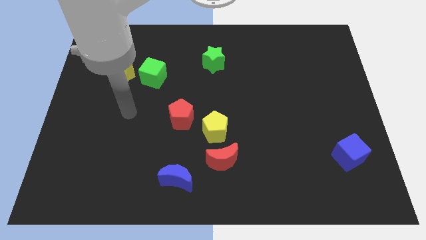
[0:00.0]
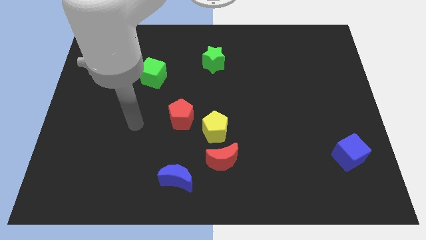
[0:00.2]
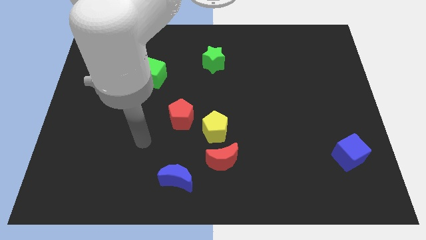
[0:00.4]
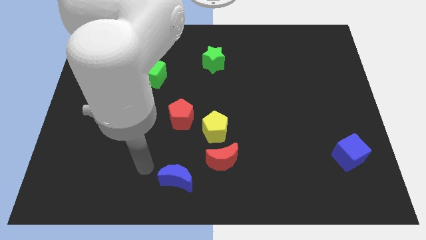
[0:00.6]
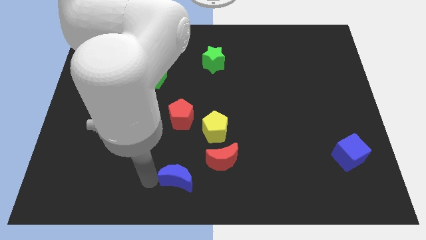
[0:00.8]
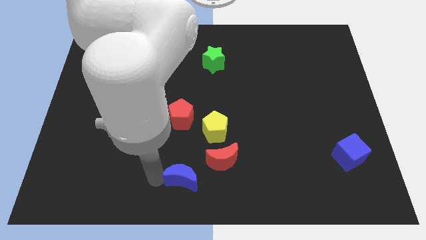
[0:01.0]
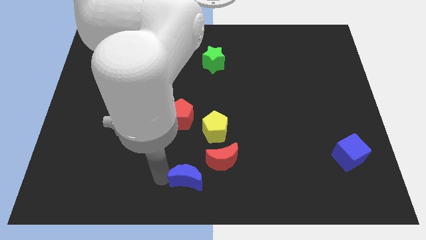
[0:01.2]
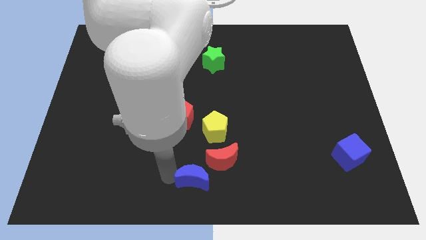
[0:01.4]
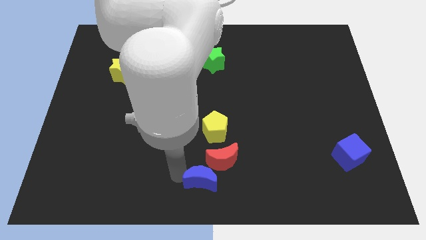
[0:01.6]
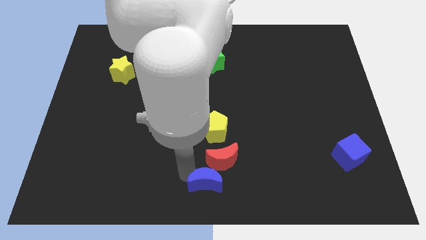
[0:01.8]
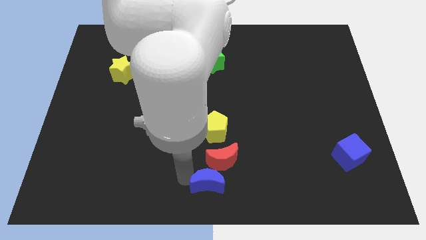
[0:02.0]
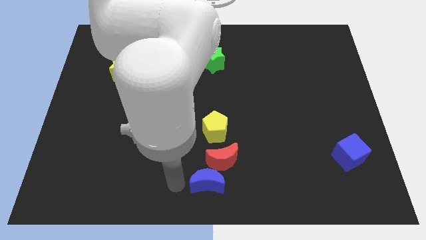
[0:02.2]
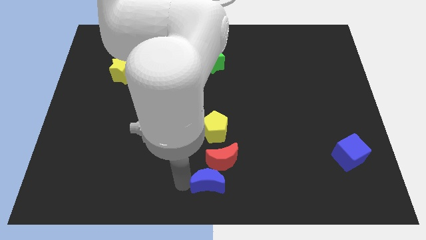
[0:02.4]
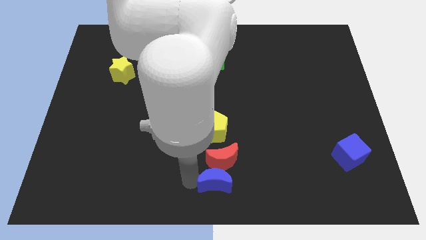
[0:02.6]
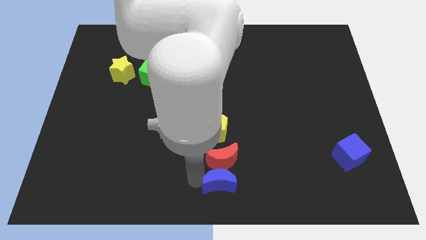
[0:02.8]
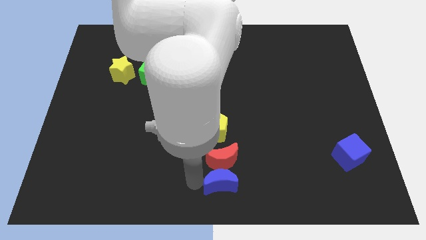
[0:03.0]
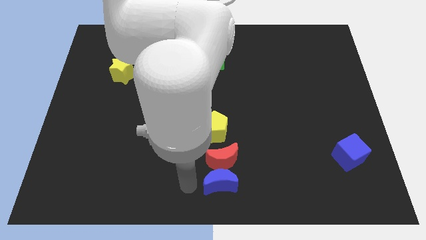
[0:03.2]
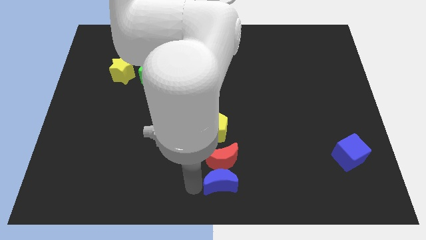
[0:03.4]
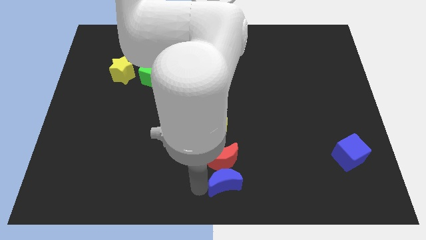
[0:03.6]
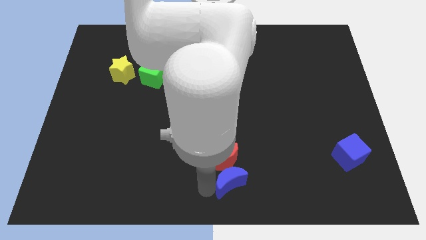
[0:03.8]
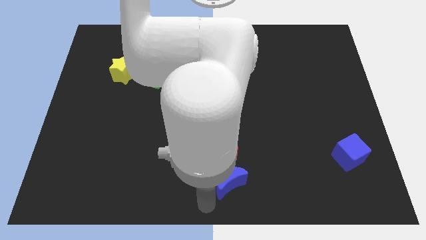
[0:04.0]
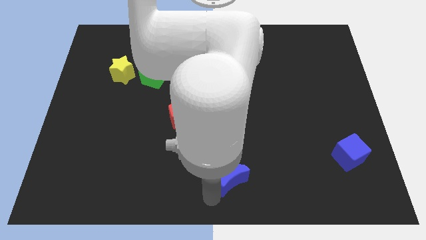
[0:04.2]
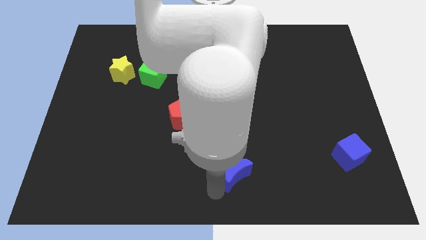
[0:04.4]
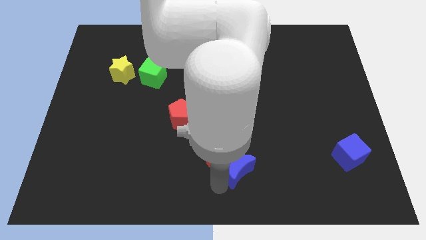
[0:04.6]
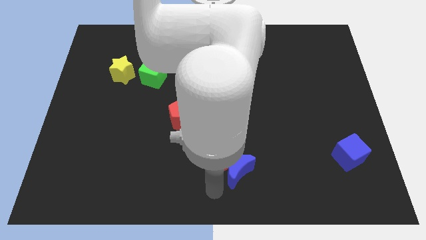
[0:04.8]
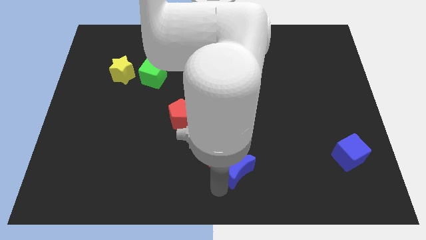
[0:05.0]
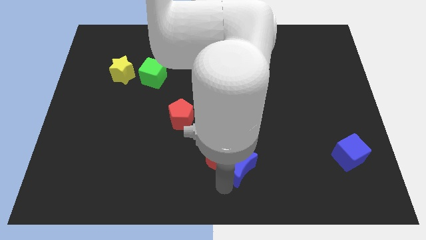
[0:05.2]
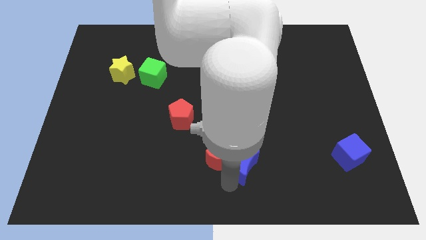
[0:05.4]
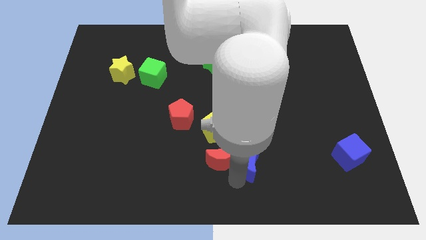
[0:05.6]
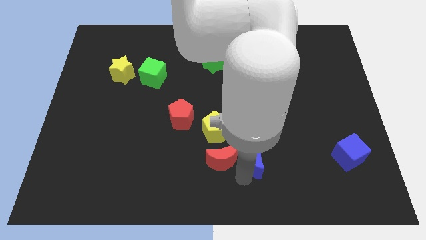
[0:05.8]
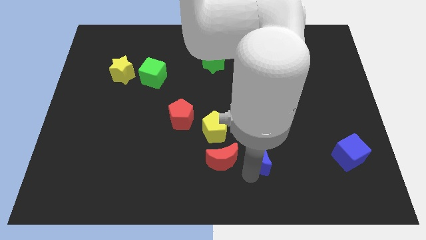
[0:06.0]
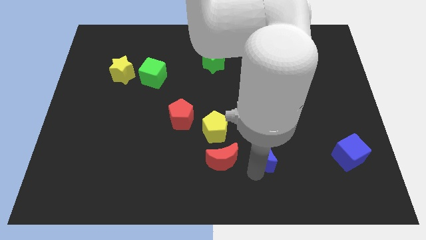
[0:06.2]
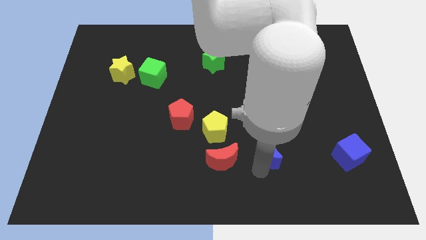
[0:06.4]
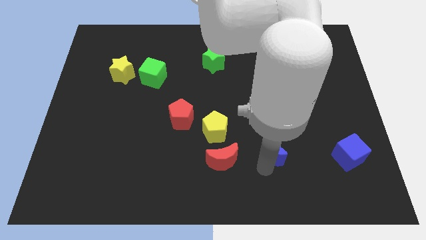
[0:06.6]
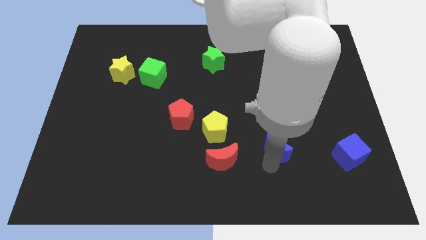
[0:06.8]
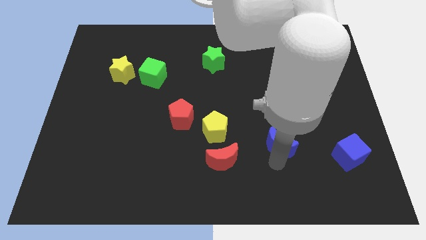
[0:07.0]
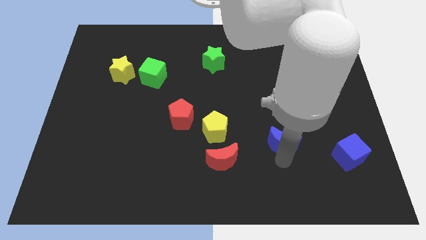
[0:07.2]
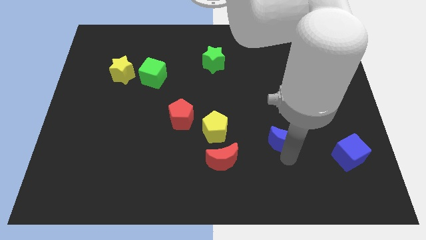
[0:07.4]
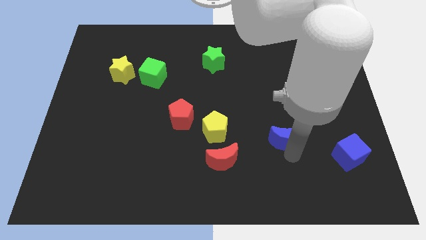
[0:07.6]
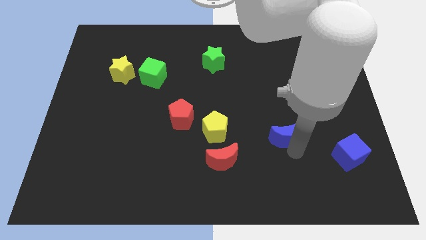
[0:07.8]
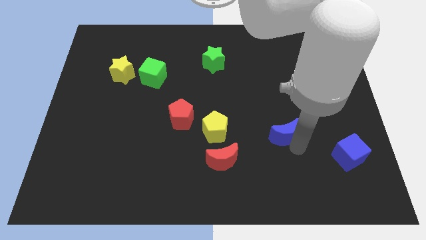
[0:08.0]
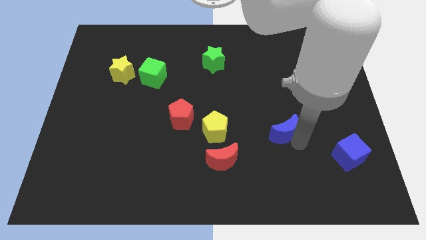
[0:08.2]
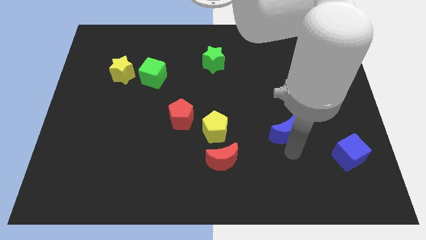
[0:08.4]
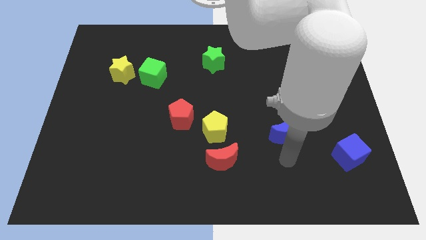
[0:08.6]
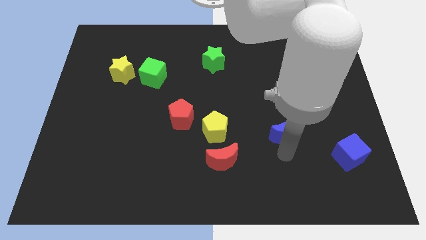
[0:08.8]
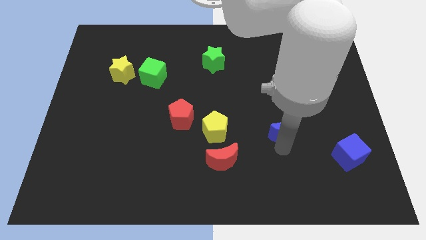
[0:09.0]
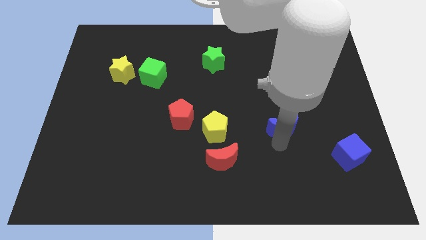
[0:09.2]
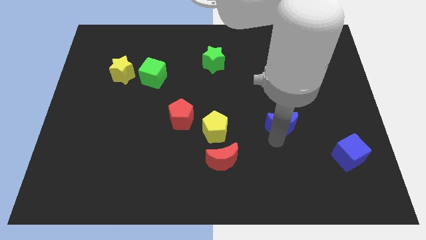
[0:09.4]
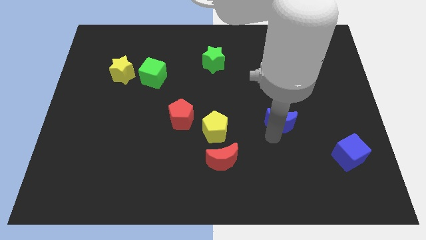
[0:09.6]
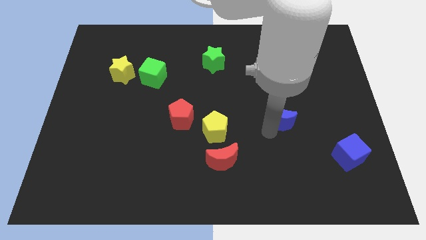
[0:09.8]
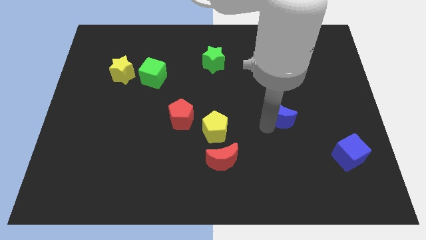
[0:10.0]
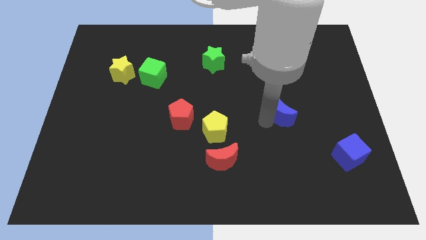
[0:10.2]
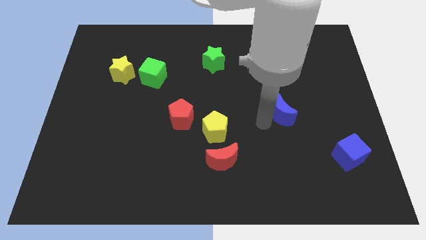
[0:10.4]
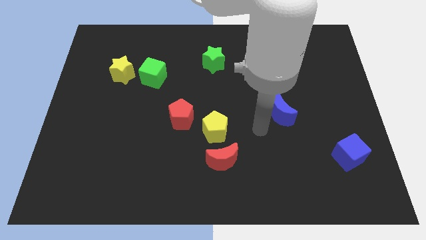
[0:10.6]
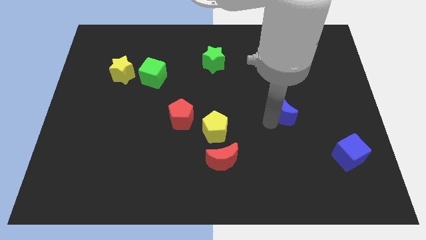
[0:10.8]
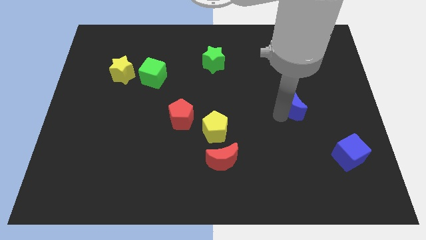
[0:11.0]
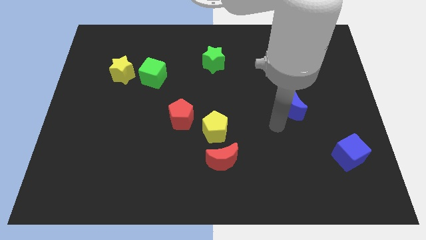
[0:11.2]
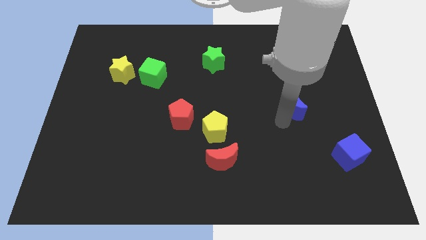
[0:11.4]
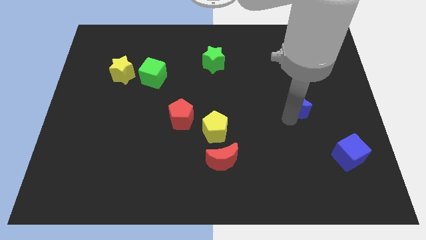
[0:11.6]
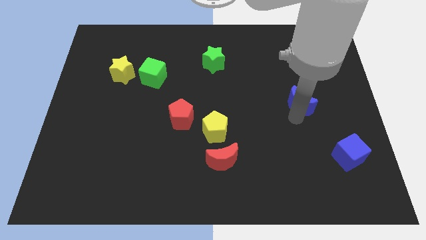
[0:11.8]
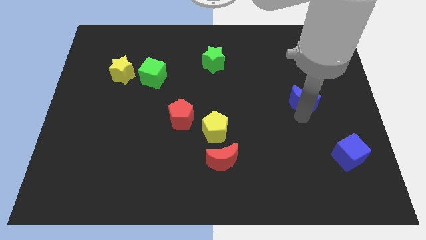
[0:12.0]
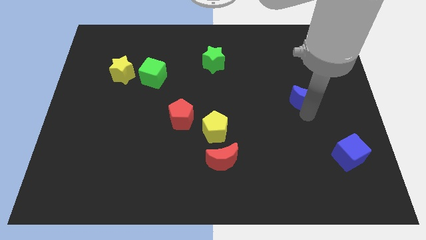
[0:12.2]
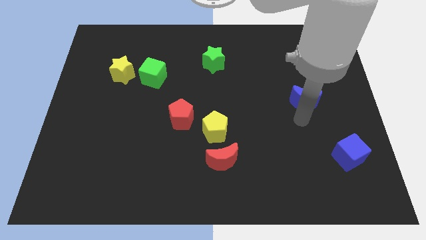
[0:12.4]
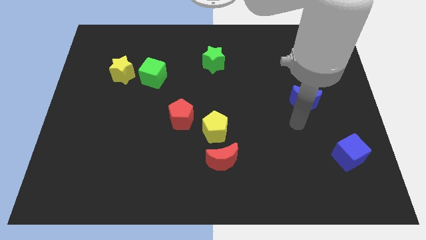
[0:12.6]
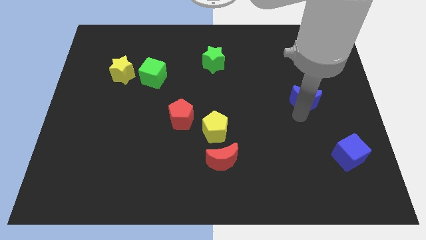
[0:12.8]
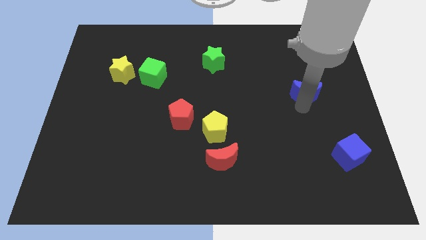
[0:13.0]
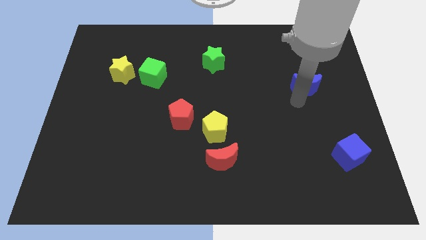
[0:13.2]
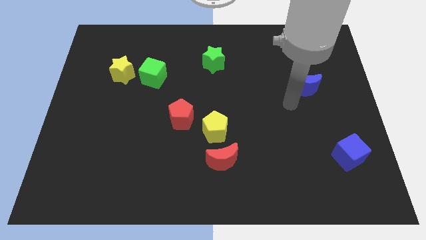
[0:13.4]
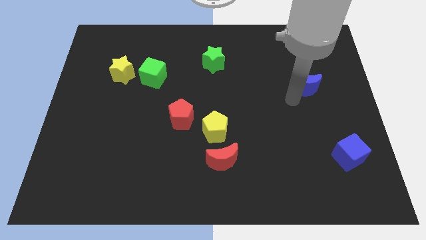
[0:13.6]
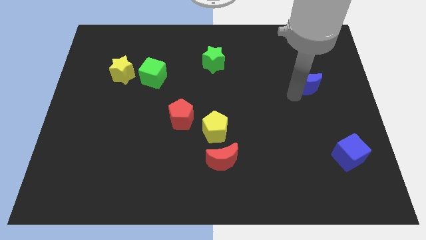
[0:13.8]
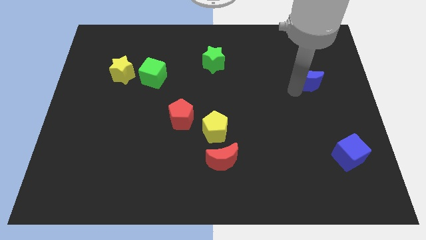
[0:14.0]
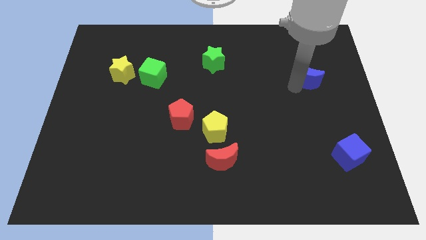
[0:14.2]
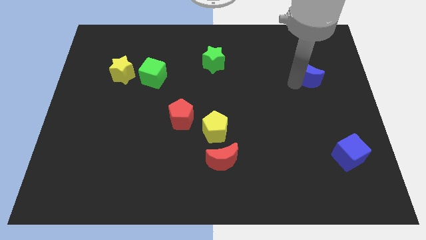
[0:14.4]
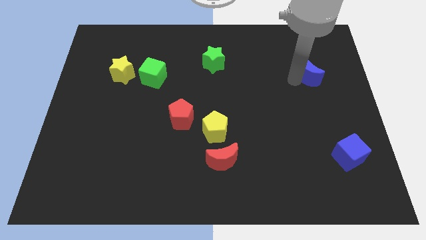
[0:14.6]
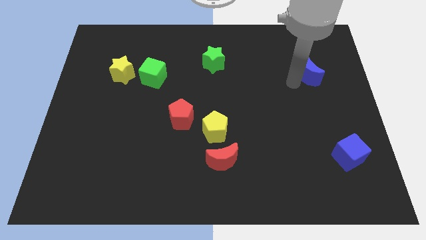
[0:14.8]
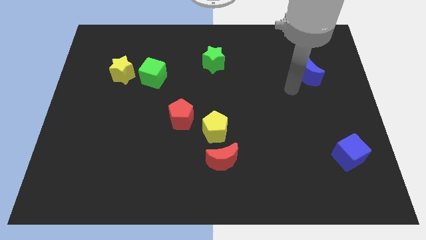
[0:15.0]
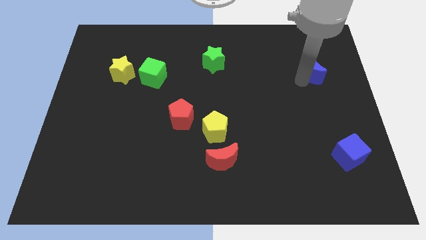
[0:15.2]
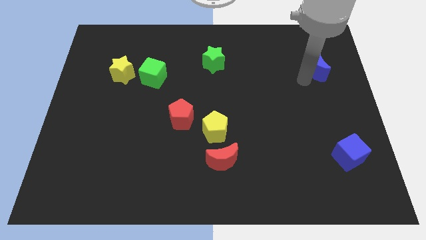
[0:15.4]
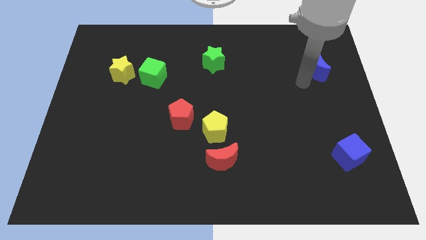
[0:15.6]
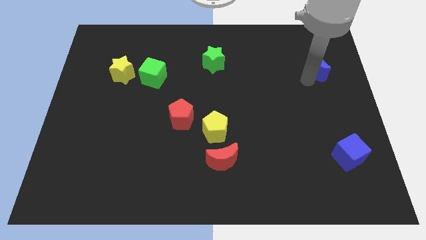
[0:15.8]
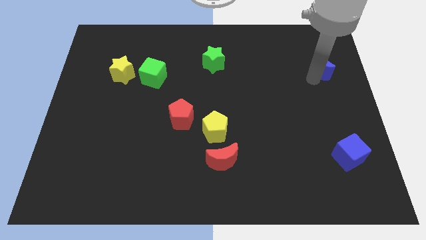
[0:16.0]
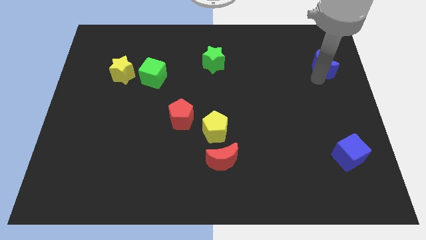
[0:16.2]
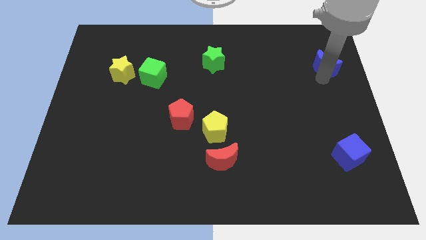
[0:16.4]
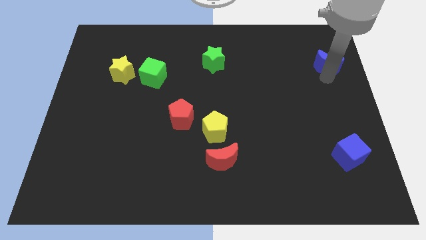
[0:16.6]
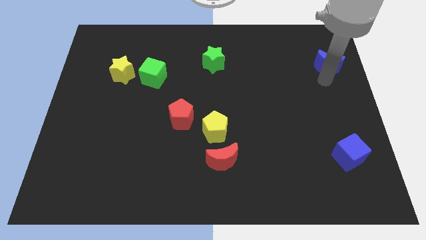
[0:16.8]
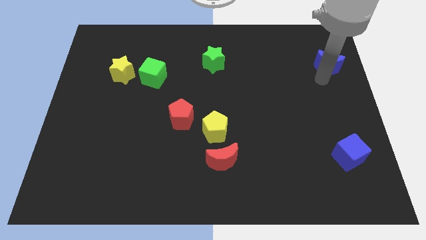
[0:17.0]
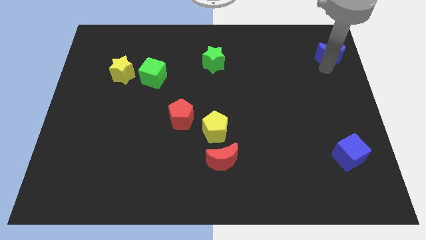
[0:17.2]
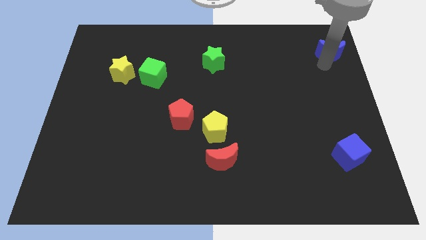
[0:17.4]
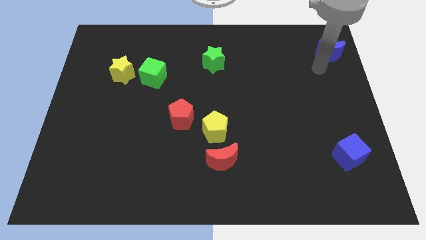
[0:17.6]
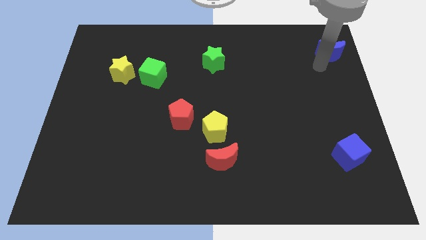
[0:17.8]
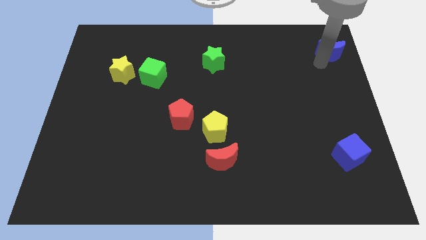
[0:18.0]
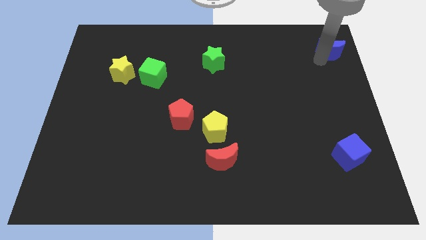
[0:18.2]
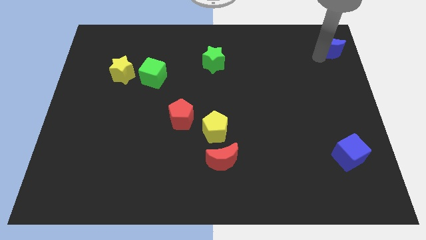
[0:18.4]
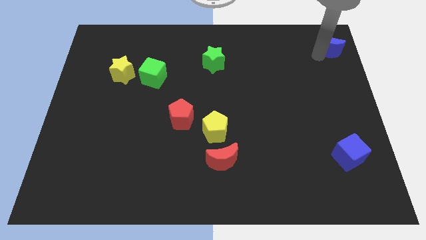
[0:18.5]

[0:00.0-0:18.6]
move the blue moon to the upper right corner
